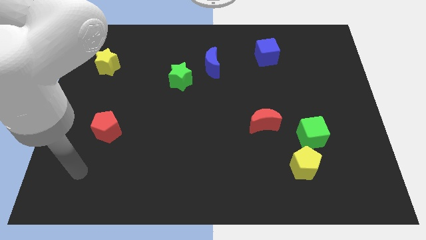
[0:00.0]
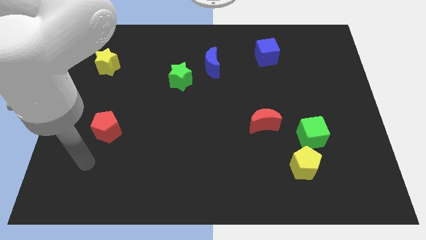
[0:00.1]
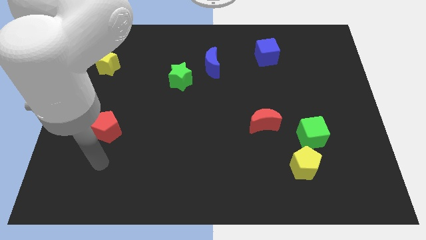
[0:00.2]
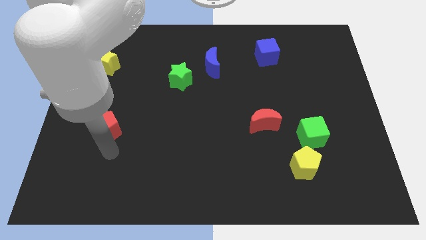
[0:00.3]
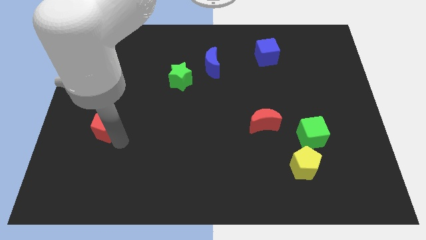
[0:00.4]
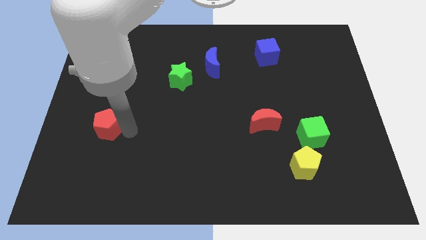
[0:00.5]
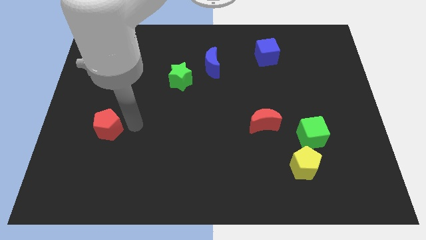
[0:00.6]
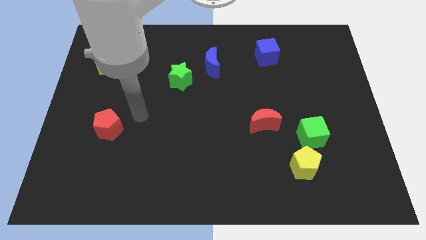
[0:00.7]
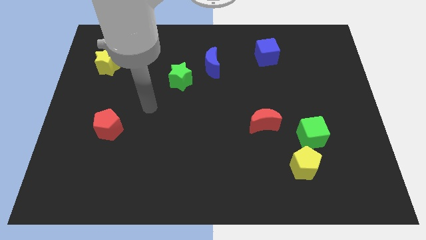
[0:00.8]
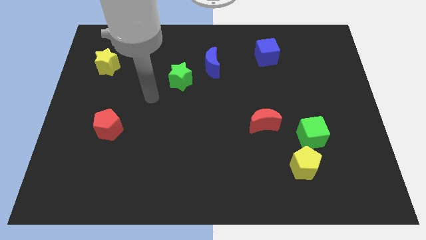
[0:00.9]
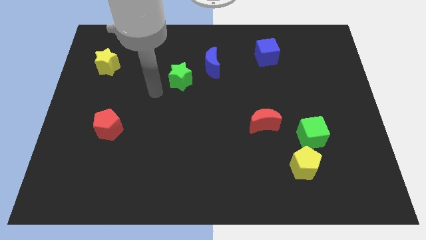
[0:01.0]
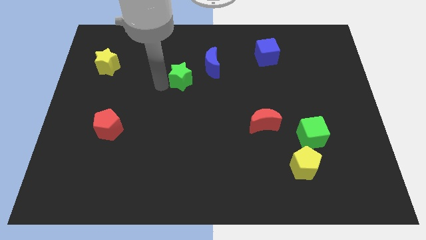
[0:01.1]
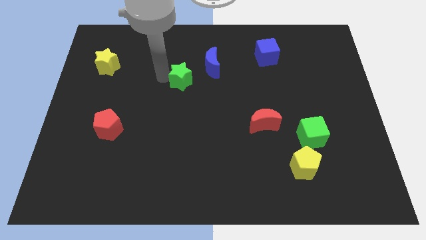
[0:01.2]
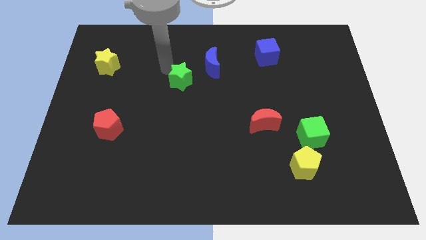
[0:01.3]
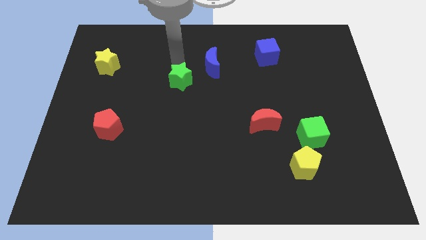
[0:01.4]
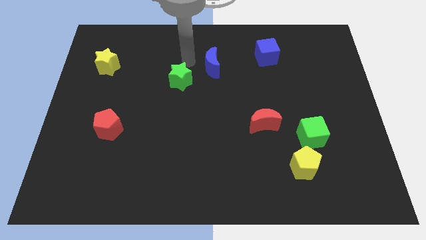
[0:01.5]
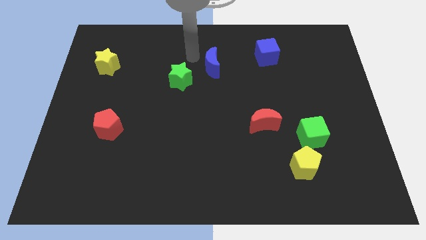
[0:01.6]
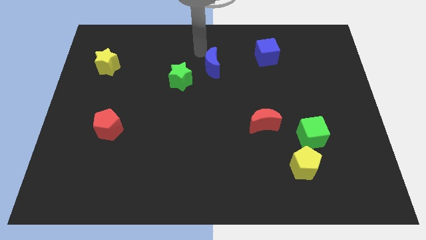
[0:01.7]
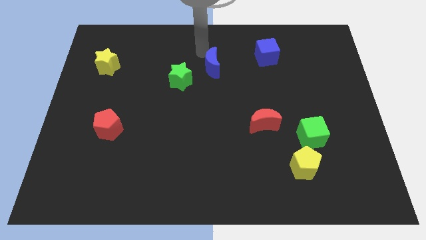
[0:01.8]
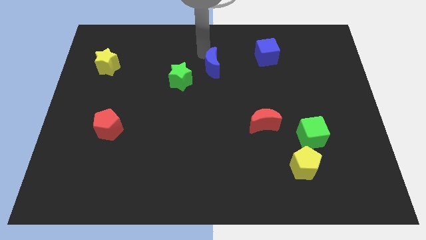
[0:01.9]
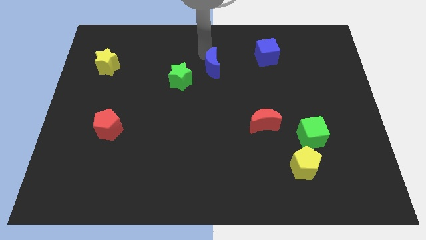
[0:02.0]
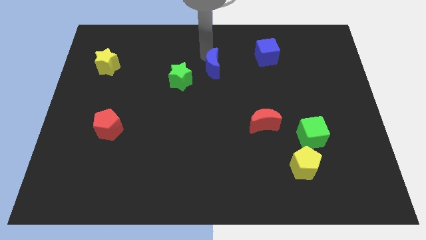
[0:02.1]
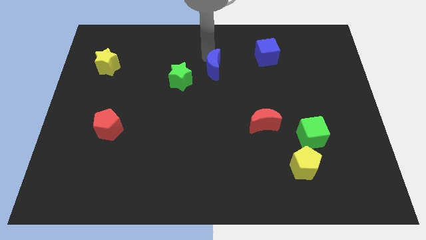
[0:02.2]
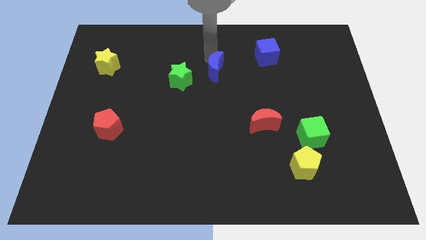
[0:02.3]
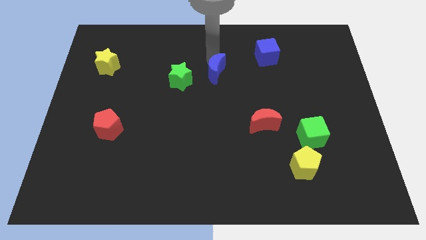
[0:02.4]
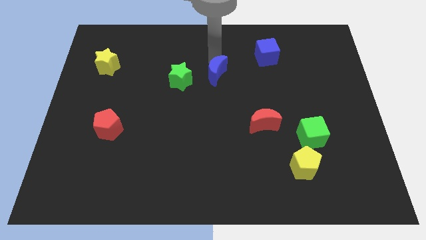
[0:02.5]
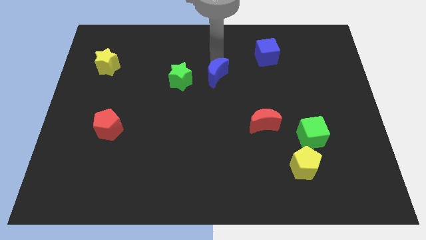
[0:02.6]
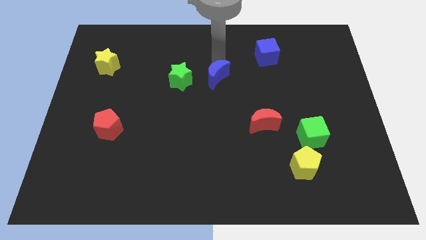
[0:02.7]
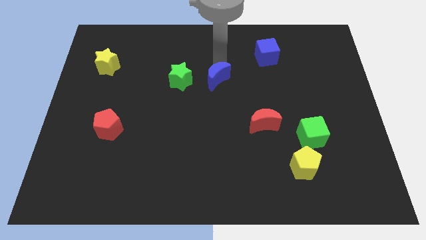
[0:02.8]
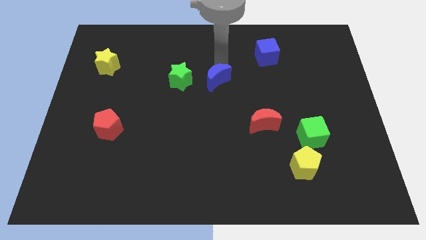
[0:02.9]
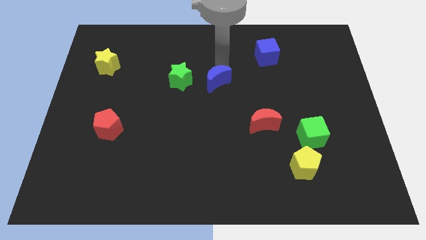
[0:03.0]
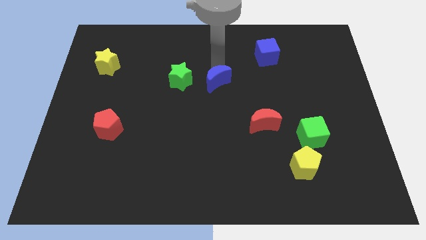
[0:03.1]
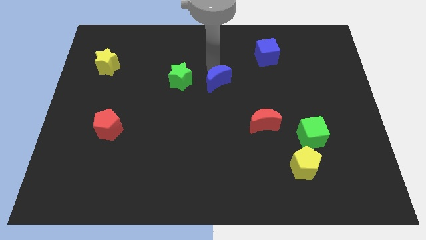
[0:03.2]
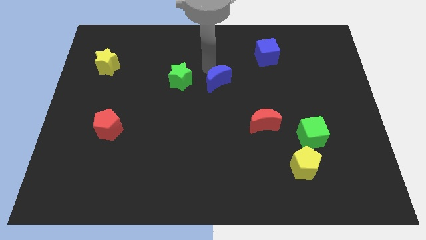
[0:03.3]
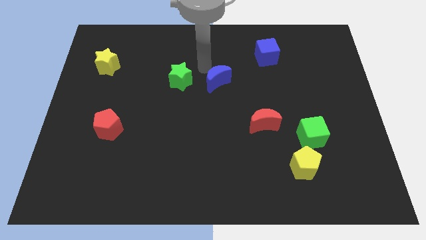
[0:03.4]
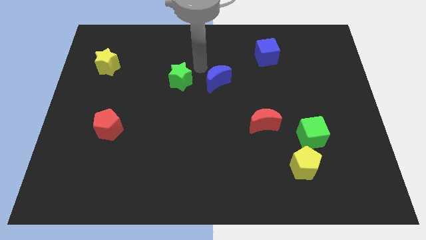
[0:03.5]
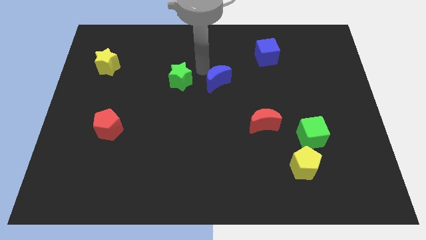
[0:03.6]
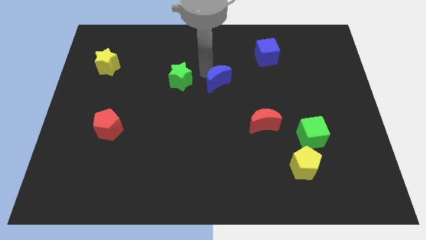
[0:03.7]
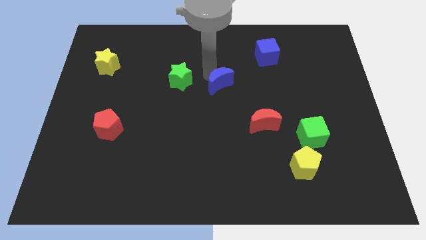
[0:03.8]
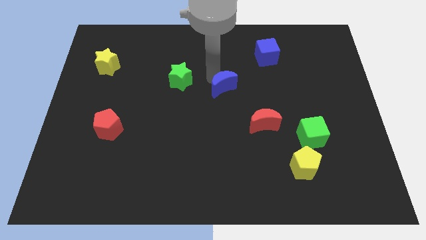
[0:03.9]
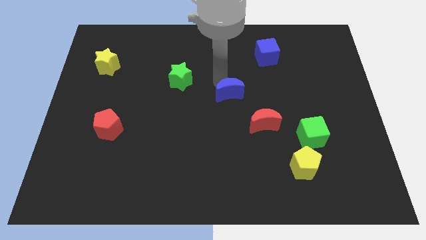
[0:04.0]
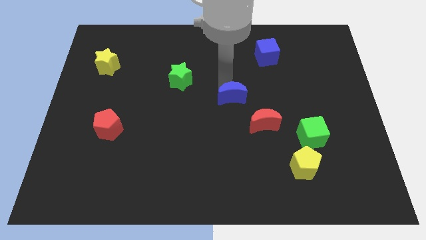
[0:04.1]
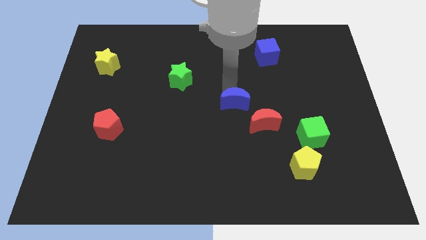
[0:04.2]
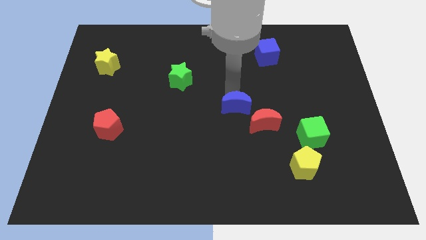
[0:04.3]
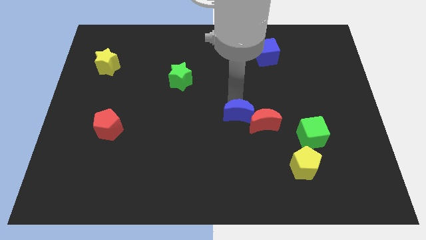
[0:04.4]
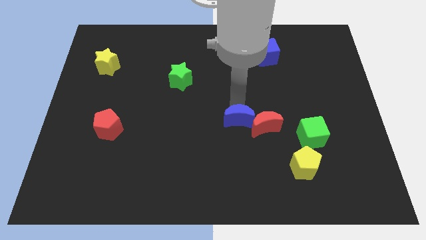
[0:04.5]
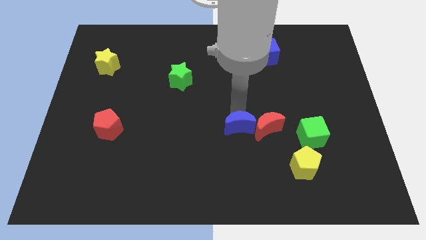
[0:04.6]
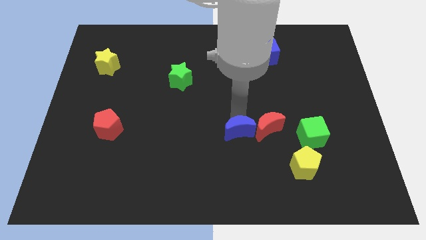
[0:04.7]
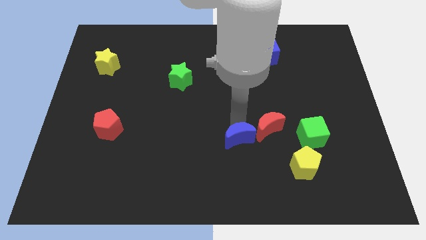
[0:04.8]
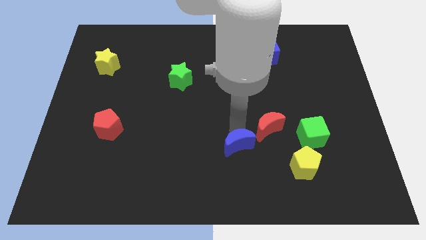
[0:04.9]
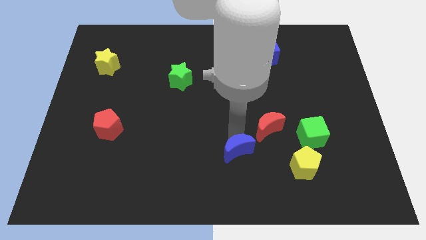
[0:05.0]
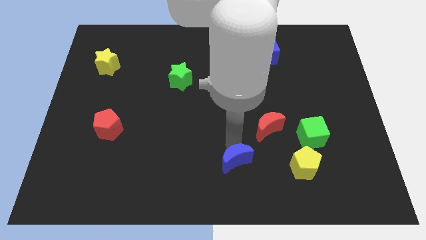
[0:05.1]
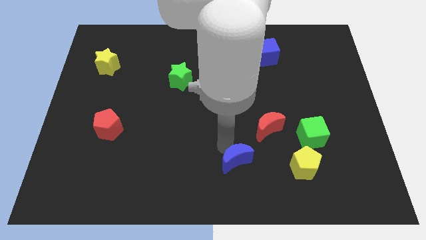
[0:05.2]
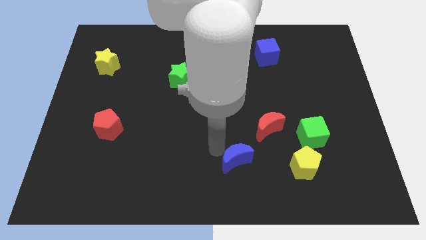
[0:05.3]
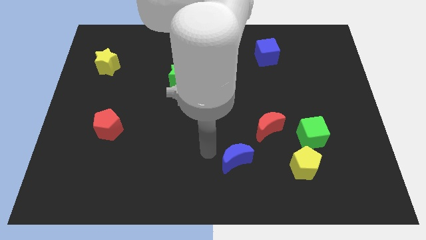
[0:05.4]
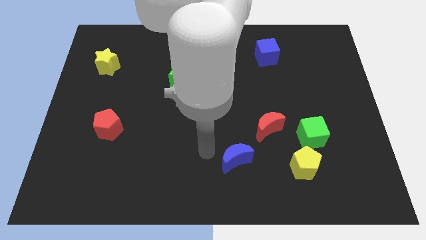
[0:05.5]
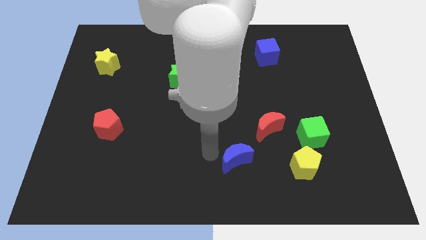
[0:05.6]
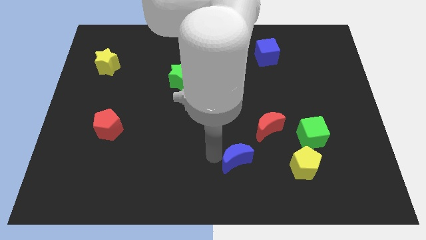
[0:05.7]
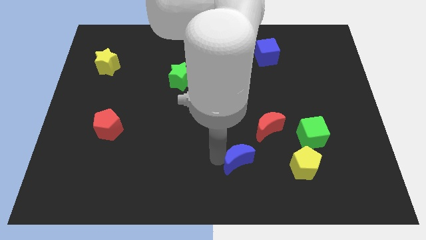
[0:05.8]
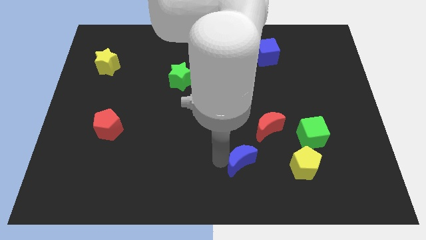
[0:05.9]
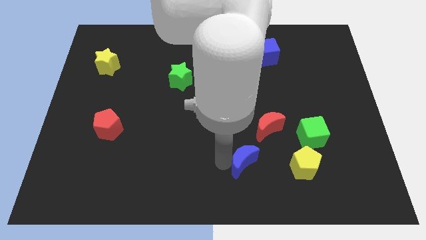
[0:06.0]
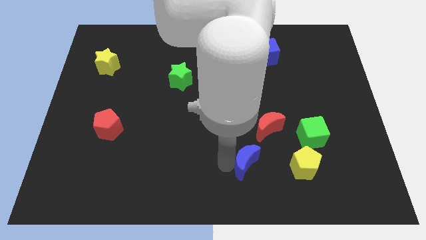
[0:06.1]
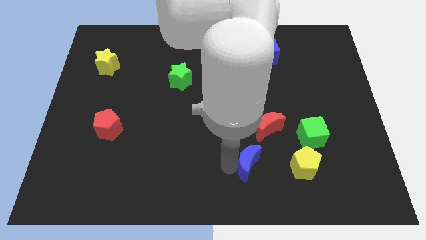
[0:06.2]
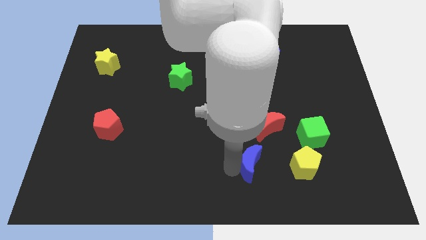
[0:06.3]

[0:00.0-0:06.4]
put the blue moon to the bottom side of the red moon

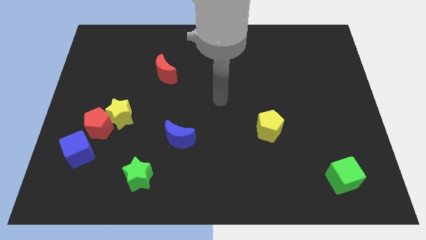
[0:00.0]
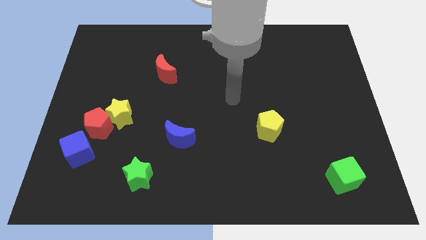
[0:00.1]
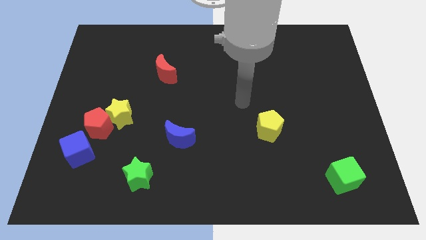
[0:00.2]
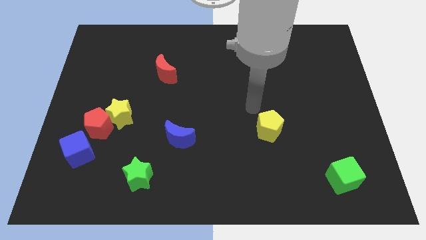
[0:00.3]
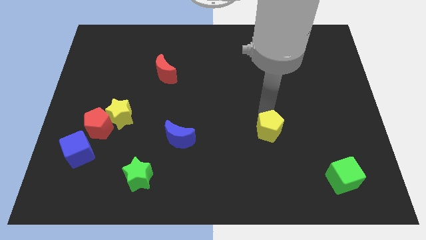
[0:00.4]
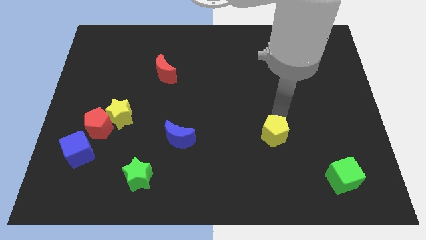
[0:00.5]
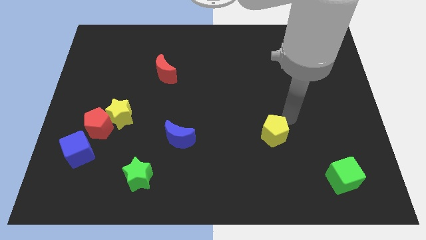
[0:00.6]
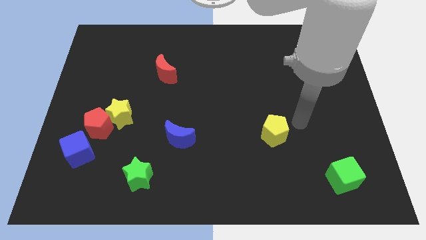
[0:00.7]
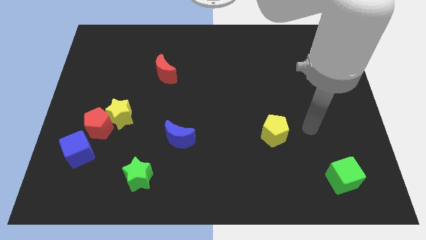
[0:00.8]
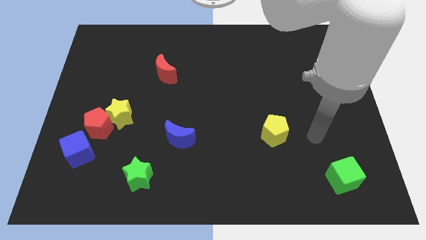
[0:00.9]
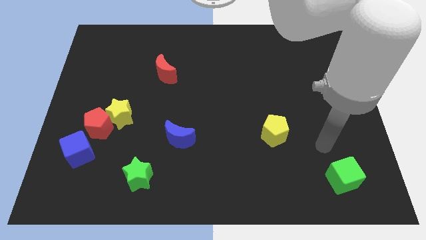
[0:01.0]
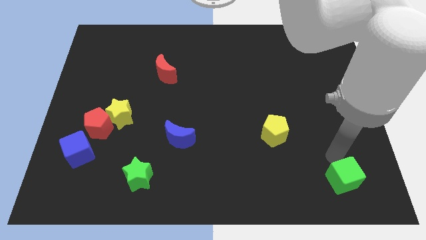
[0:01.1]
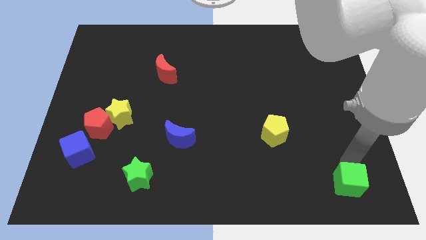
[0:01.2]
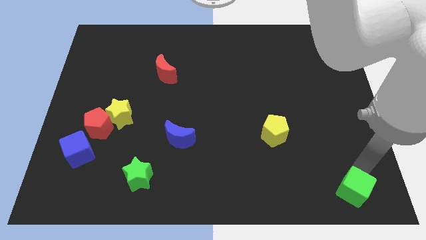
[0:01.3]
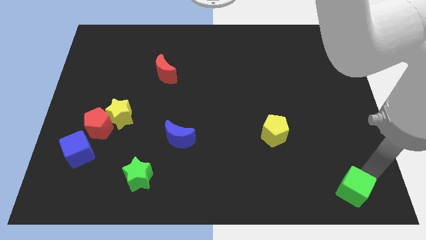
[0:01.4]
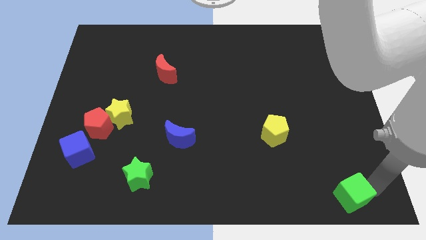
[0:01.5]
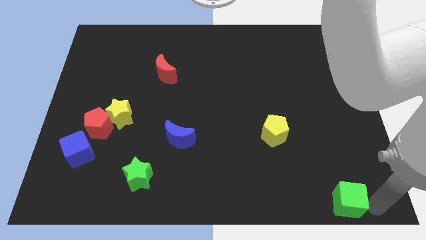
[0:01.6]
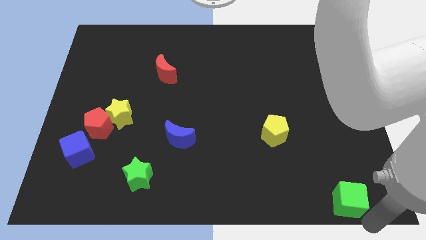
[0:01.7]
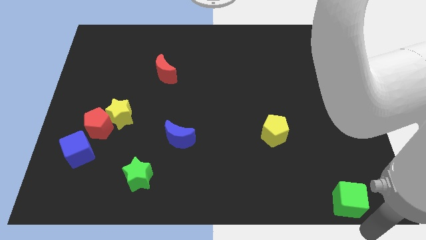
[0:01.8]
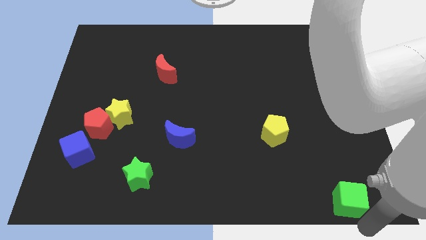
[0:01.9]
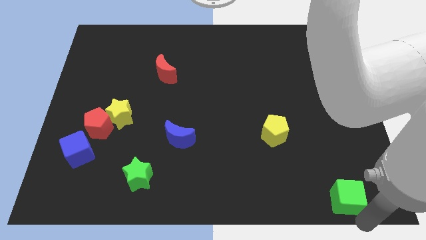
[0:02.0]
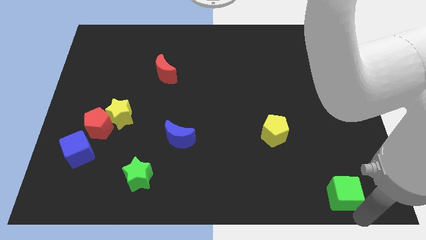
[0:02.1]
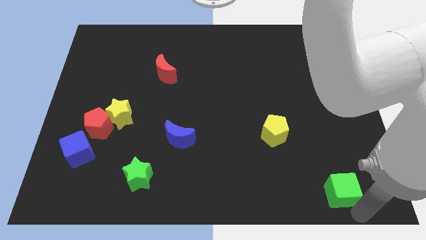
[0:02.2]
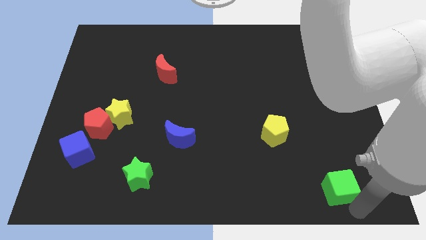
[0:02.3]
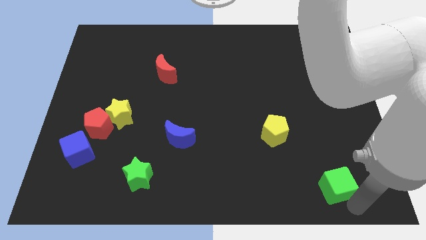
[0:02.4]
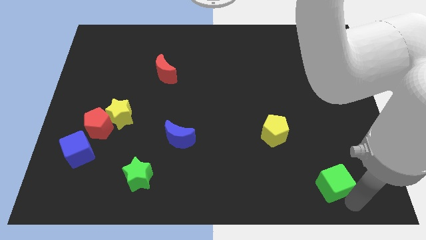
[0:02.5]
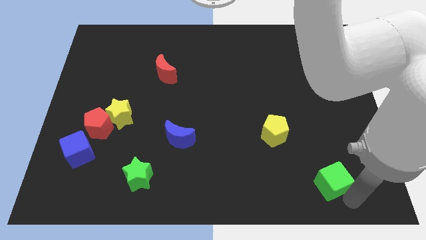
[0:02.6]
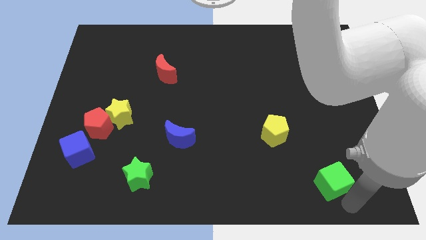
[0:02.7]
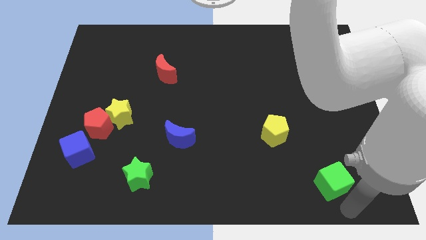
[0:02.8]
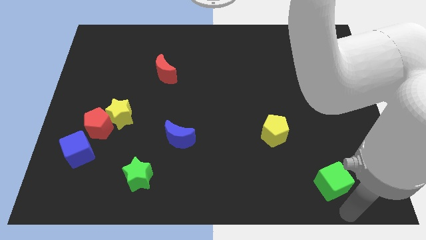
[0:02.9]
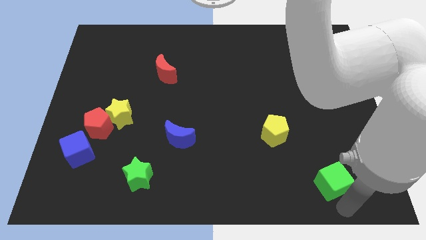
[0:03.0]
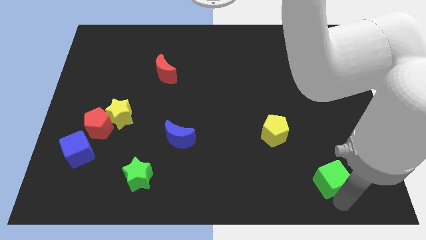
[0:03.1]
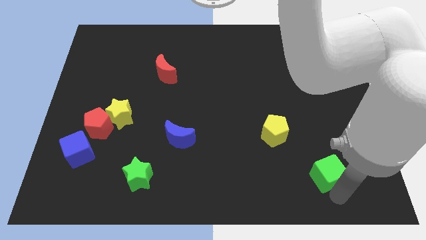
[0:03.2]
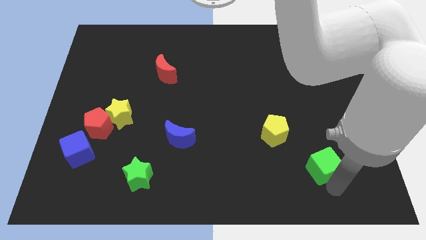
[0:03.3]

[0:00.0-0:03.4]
push the green cube to the bottom right of the yellow pentagon
